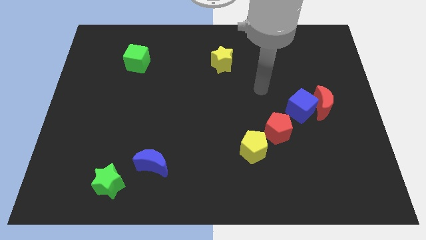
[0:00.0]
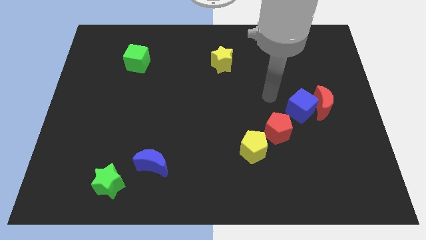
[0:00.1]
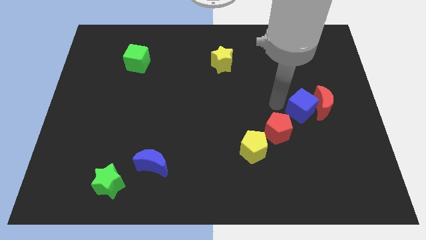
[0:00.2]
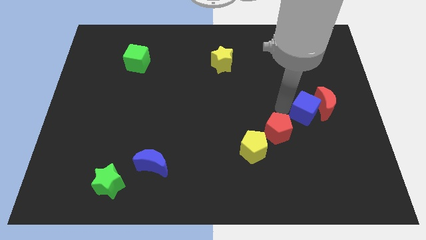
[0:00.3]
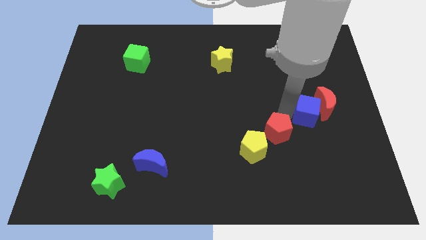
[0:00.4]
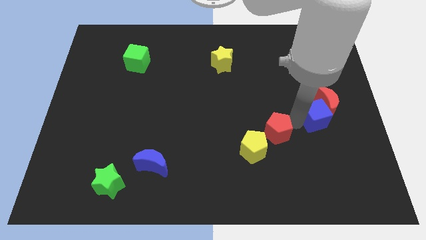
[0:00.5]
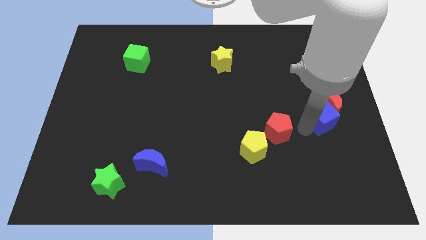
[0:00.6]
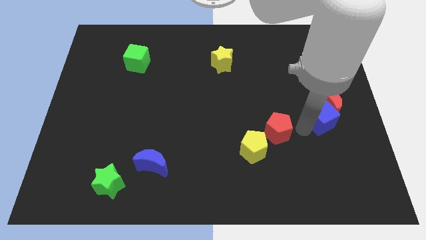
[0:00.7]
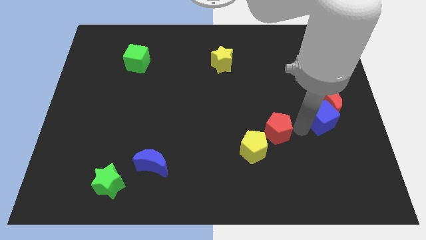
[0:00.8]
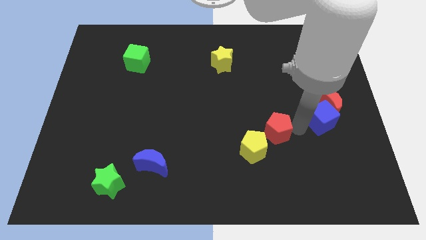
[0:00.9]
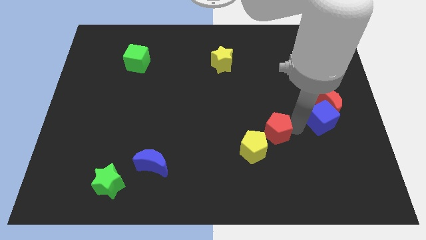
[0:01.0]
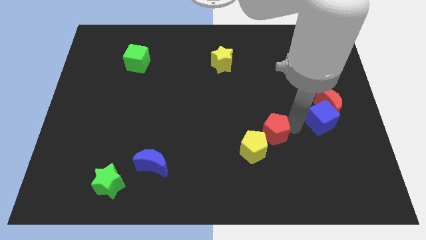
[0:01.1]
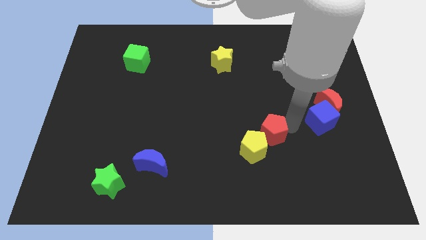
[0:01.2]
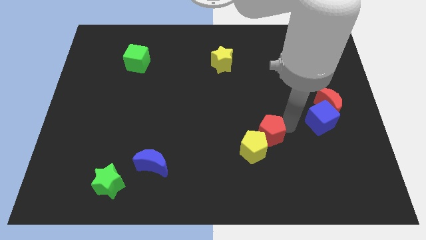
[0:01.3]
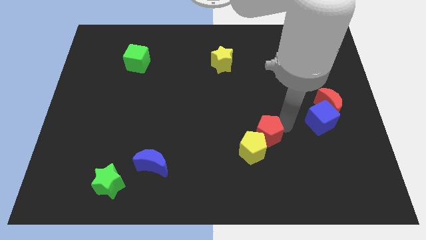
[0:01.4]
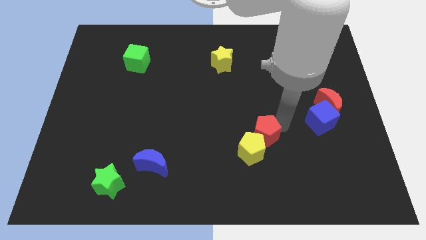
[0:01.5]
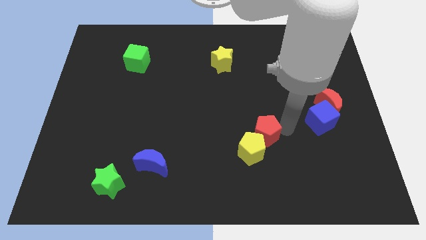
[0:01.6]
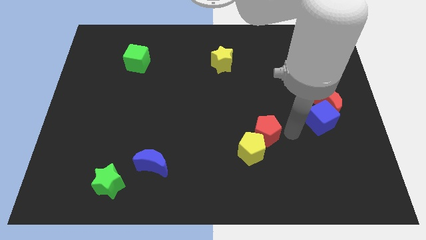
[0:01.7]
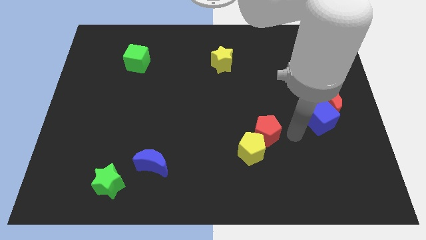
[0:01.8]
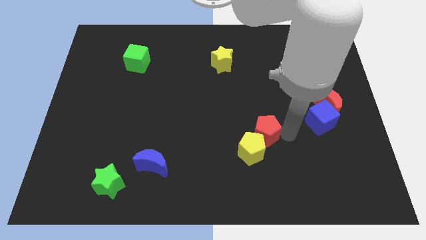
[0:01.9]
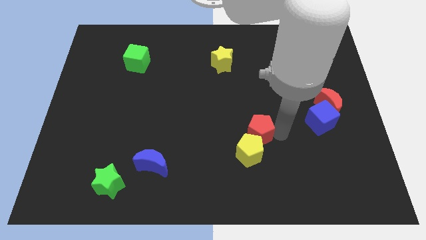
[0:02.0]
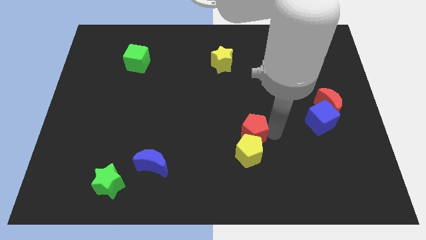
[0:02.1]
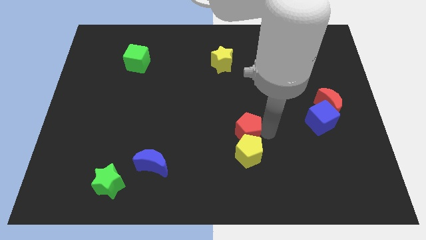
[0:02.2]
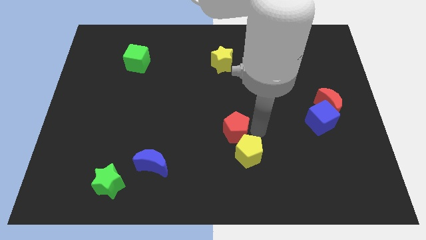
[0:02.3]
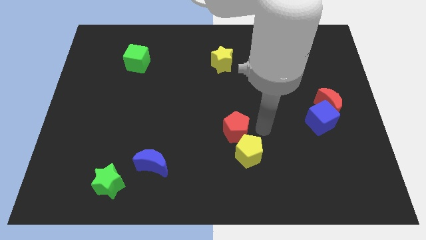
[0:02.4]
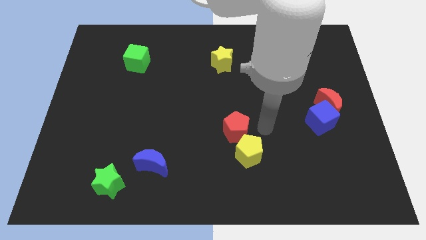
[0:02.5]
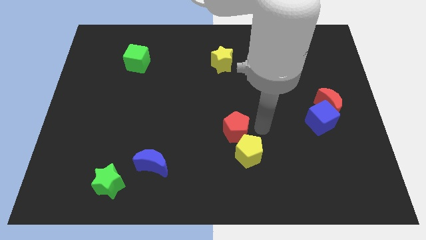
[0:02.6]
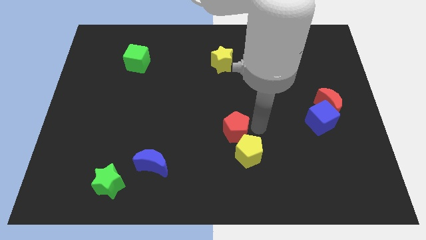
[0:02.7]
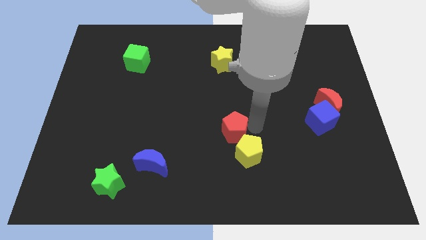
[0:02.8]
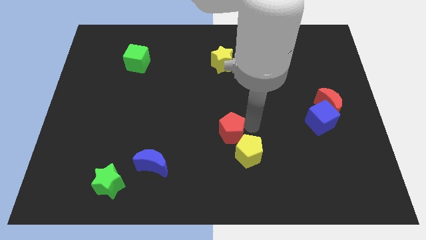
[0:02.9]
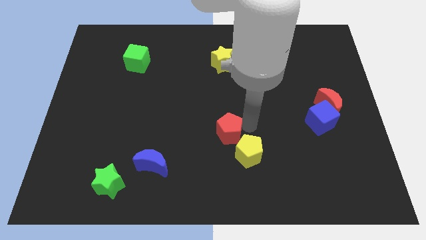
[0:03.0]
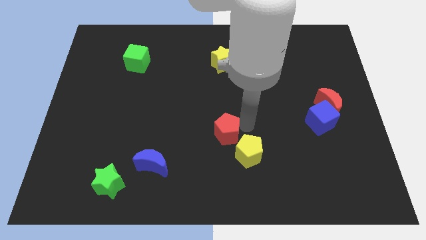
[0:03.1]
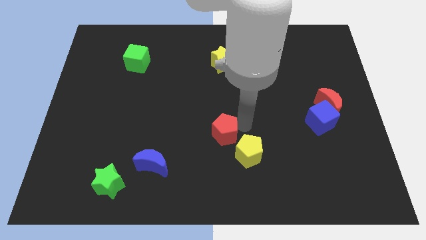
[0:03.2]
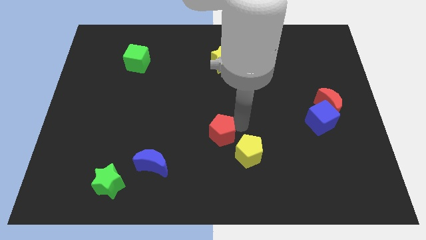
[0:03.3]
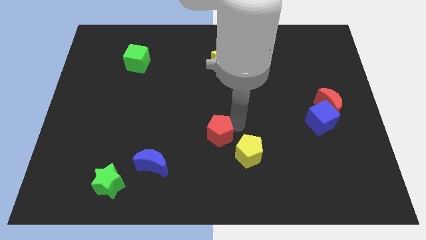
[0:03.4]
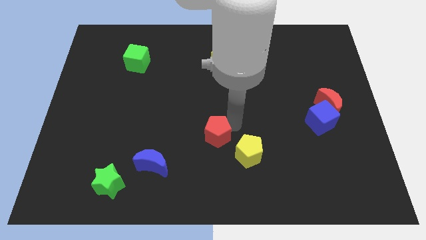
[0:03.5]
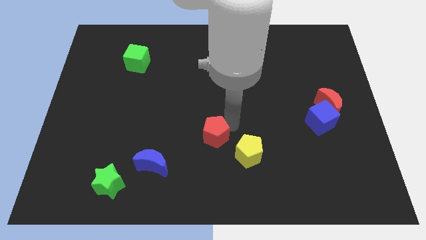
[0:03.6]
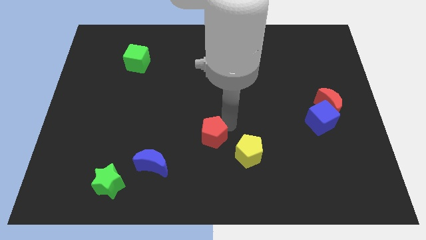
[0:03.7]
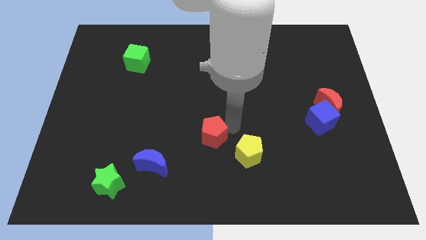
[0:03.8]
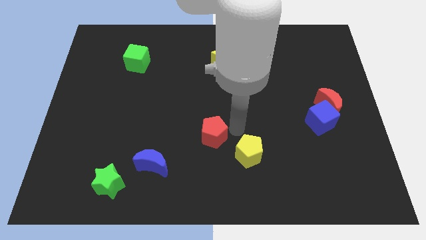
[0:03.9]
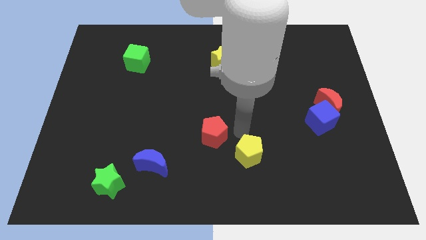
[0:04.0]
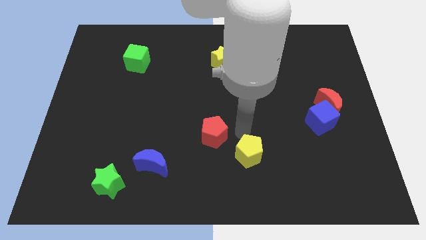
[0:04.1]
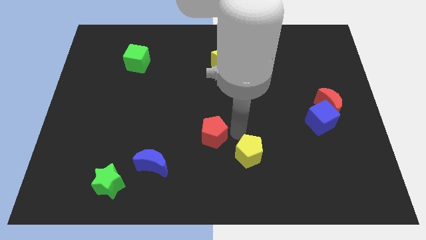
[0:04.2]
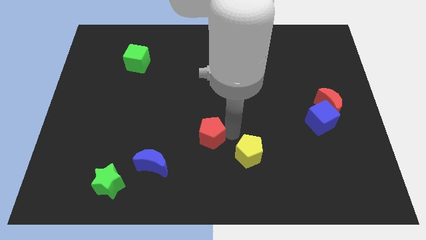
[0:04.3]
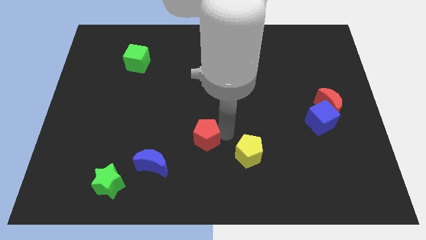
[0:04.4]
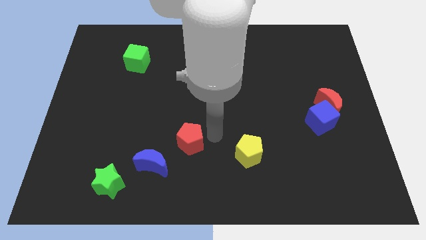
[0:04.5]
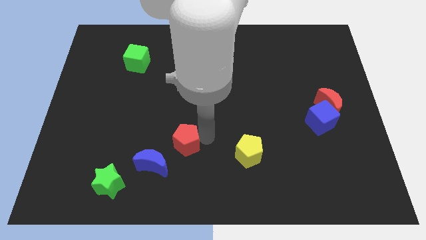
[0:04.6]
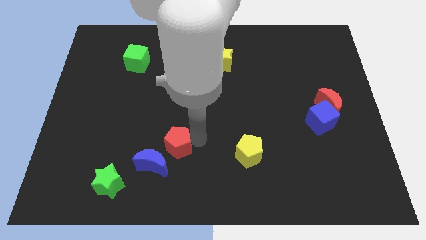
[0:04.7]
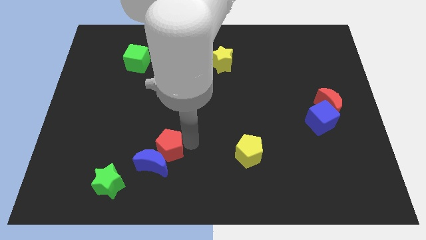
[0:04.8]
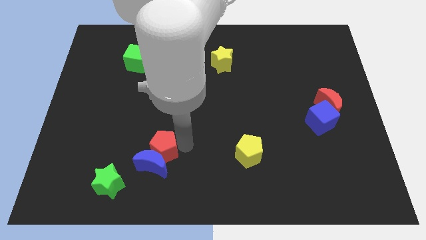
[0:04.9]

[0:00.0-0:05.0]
push the red pentagon to the top left side of the blue moon

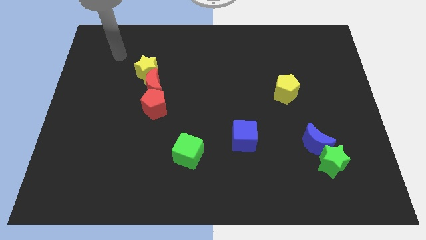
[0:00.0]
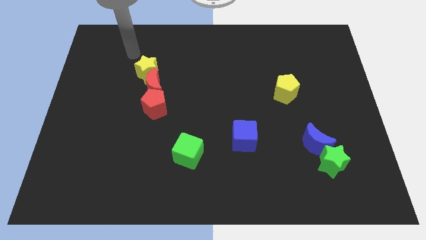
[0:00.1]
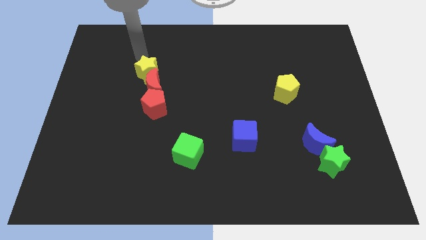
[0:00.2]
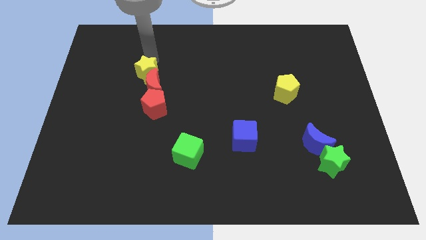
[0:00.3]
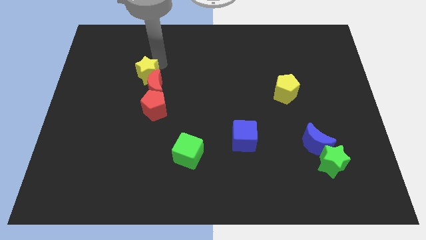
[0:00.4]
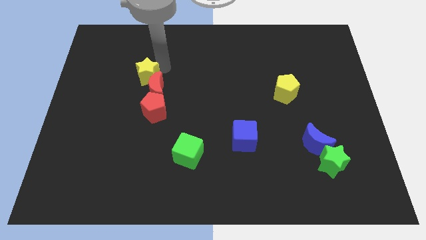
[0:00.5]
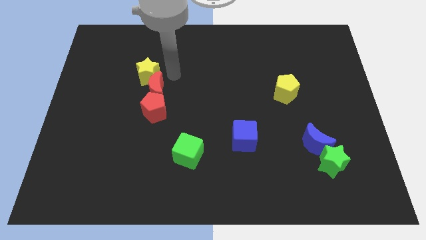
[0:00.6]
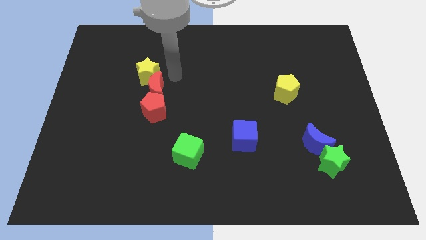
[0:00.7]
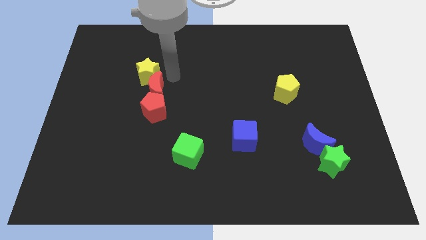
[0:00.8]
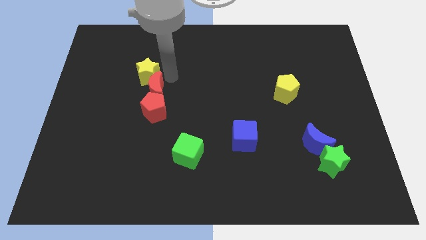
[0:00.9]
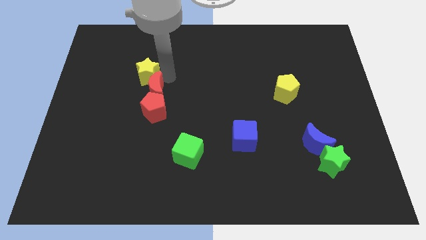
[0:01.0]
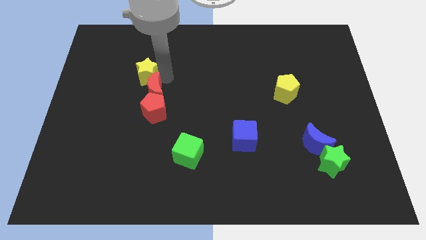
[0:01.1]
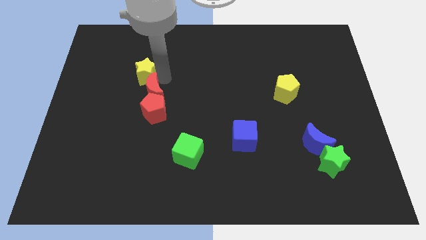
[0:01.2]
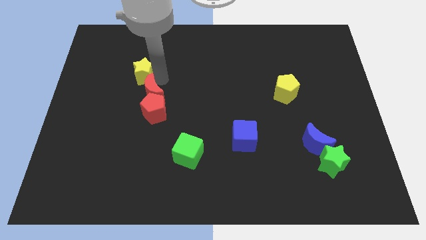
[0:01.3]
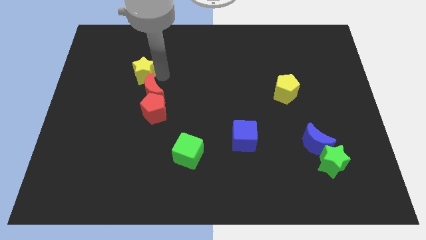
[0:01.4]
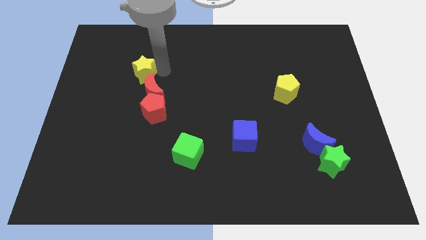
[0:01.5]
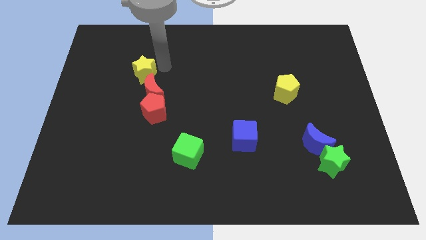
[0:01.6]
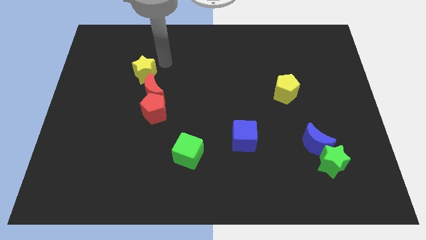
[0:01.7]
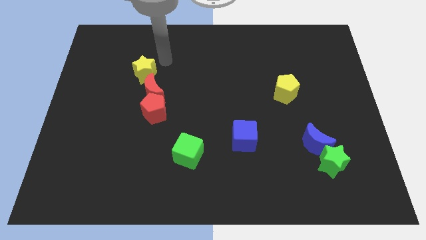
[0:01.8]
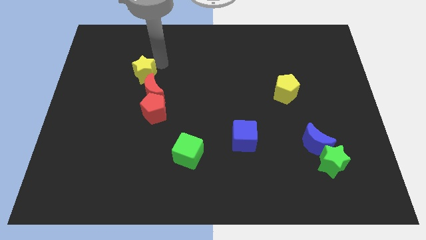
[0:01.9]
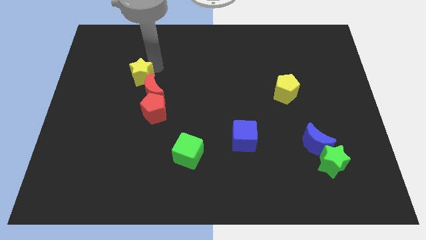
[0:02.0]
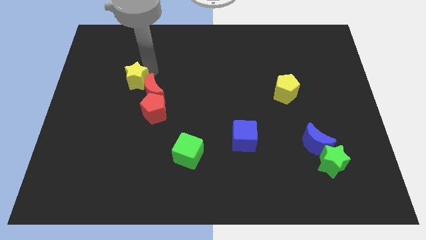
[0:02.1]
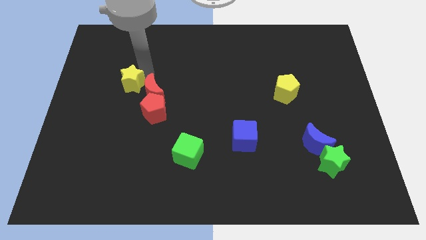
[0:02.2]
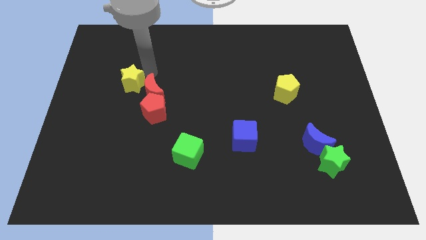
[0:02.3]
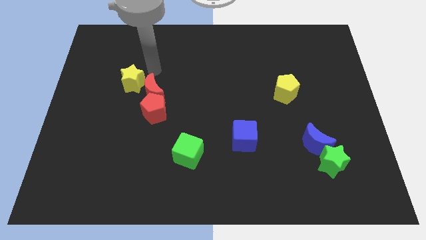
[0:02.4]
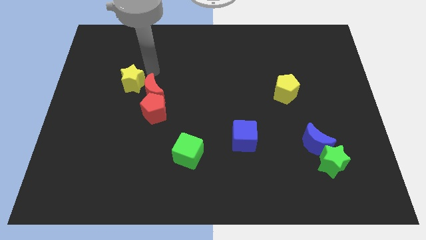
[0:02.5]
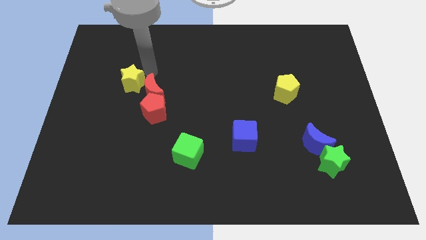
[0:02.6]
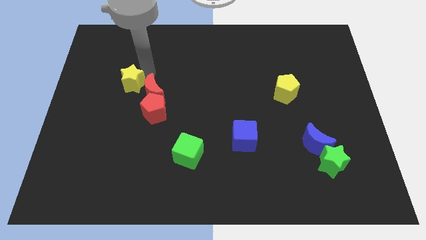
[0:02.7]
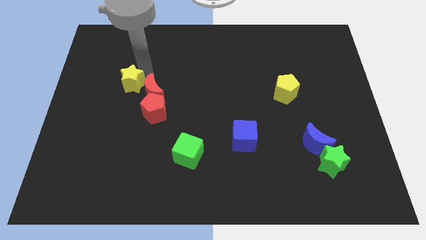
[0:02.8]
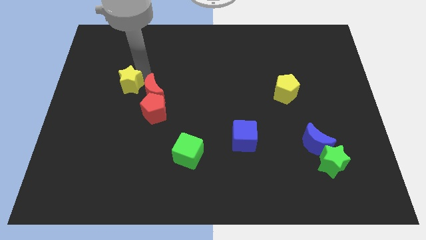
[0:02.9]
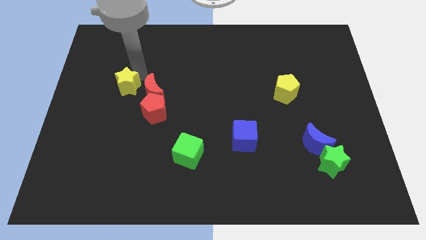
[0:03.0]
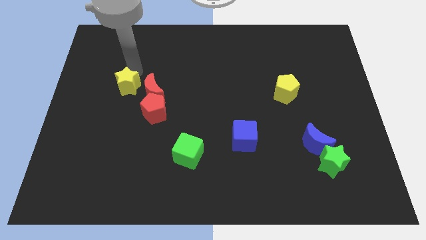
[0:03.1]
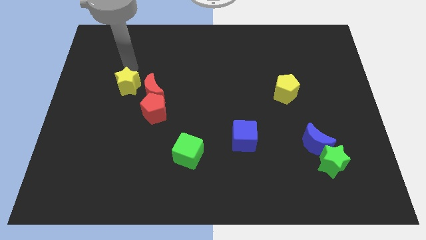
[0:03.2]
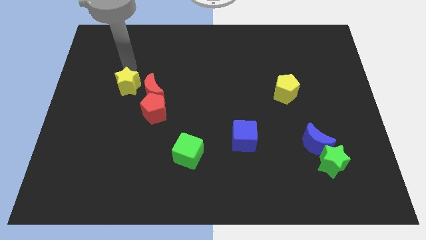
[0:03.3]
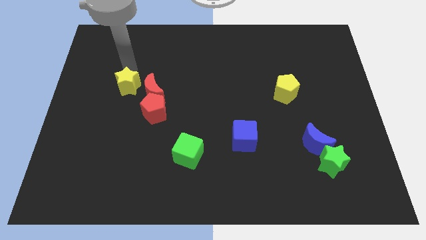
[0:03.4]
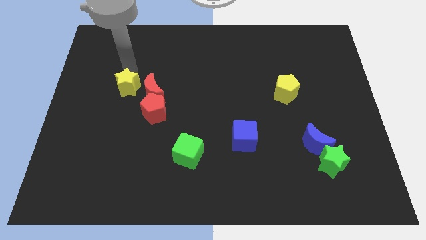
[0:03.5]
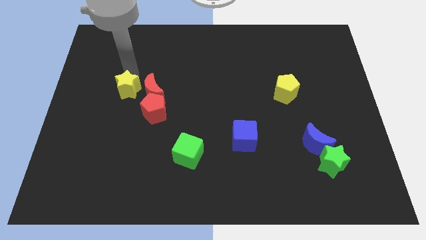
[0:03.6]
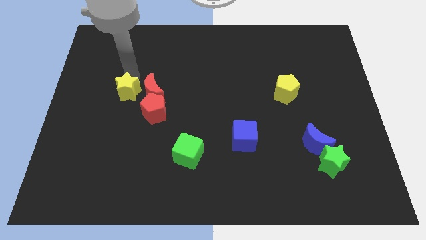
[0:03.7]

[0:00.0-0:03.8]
put the yellow star diagonally down and to the left of the red moon
